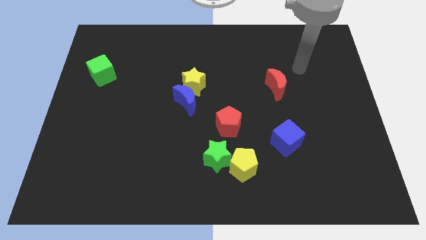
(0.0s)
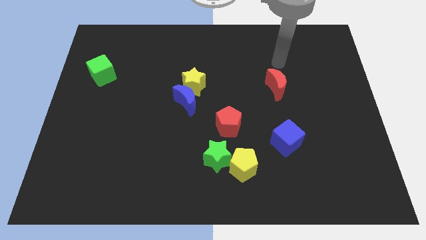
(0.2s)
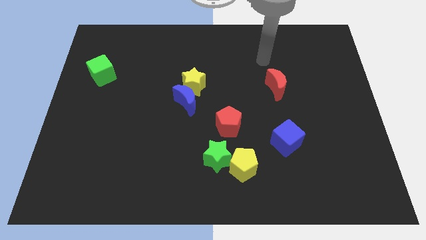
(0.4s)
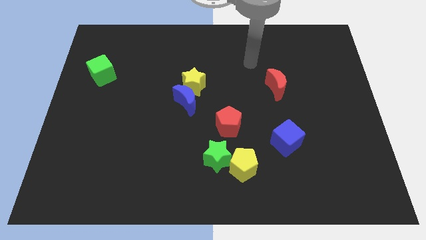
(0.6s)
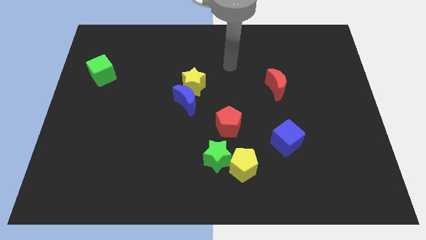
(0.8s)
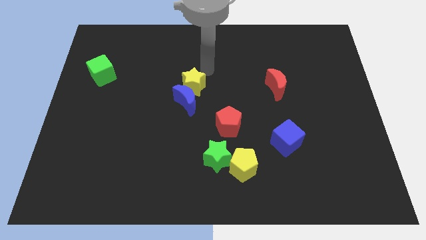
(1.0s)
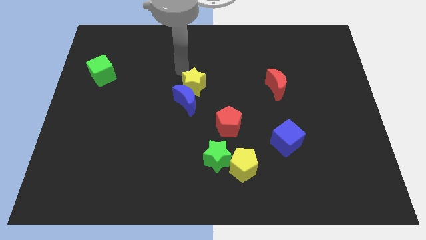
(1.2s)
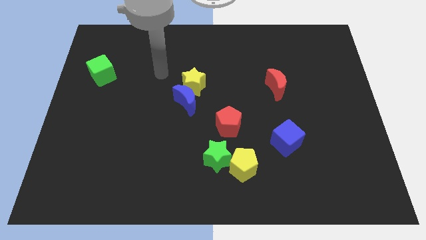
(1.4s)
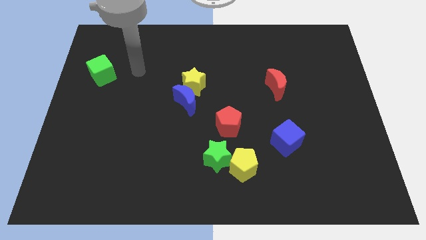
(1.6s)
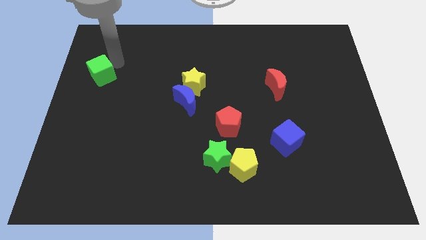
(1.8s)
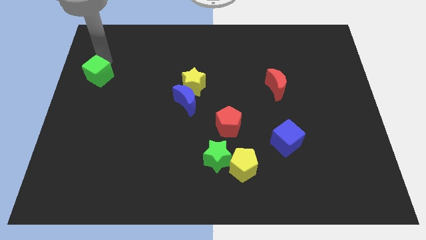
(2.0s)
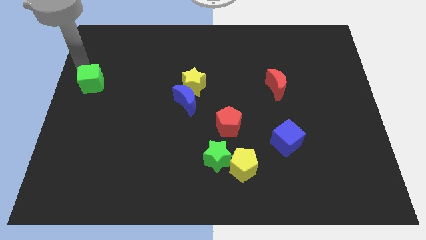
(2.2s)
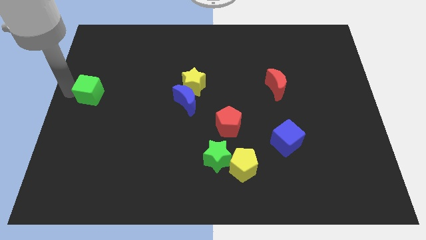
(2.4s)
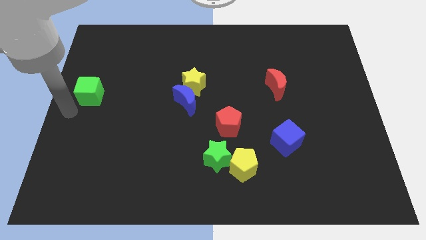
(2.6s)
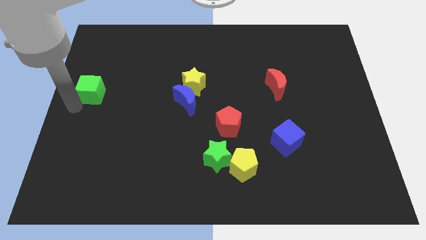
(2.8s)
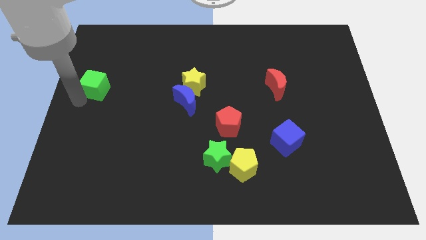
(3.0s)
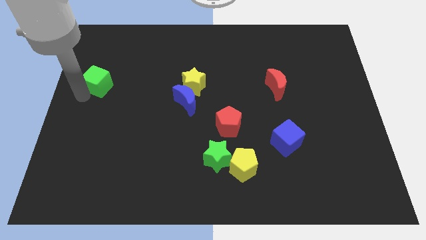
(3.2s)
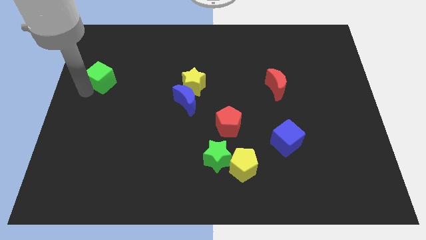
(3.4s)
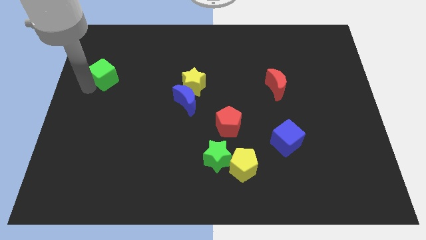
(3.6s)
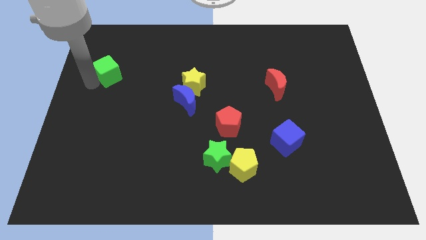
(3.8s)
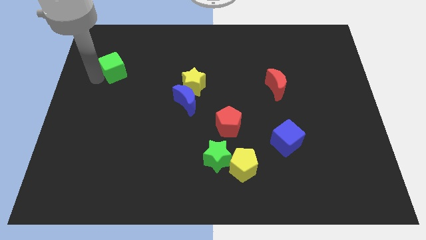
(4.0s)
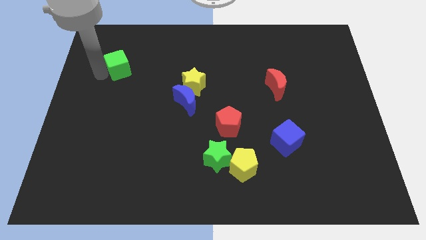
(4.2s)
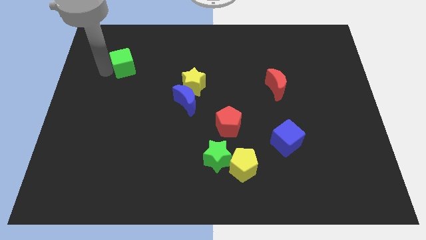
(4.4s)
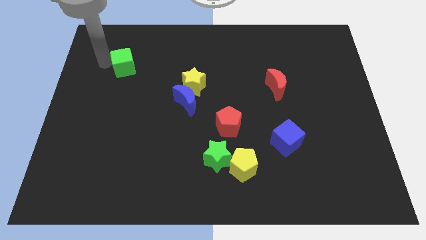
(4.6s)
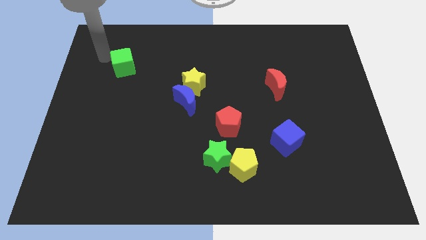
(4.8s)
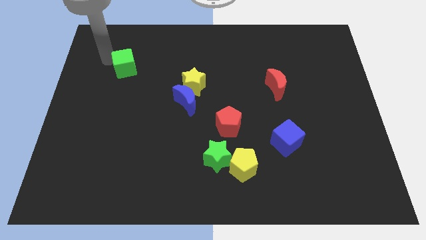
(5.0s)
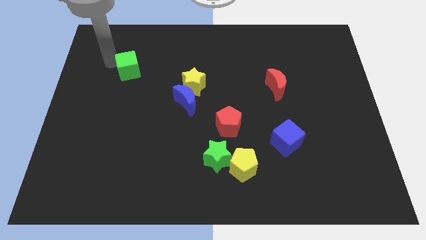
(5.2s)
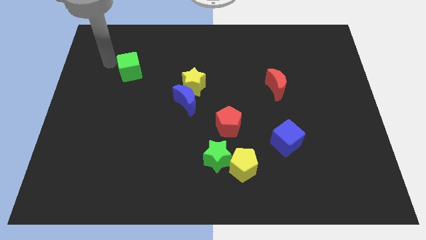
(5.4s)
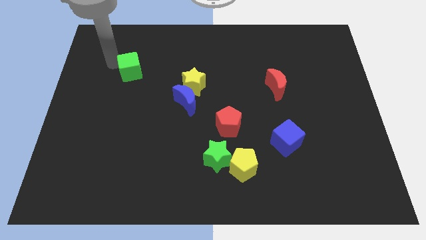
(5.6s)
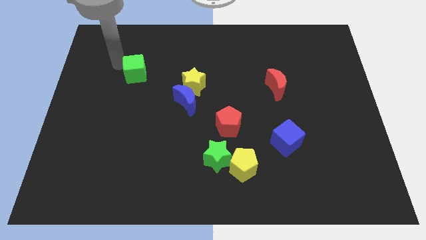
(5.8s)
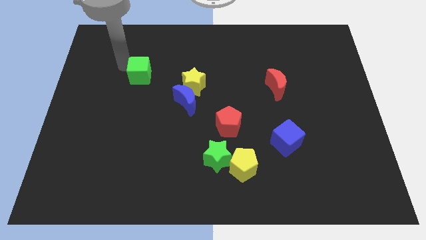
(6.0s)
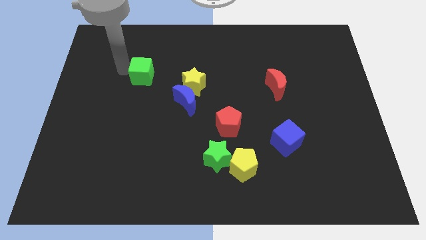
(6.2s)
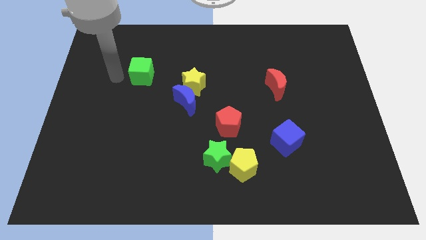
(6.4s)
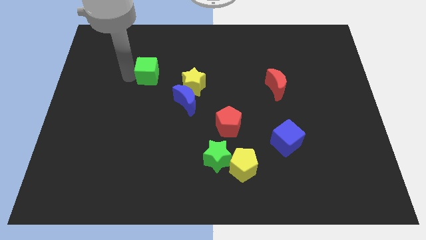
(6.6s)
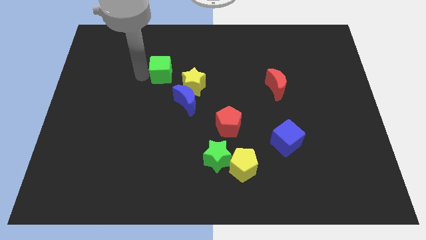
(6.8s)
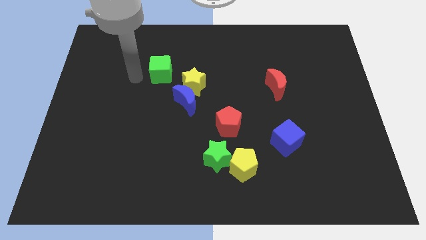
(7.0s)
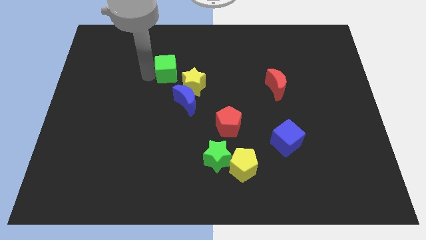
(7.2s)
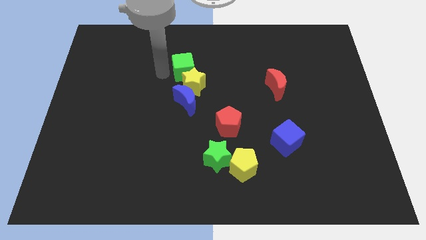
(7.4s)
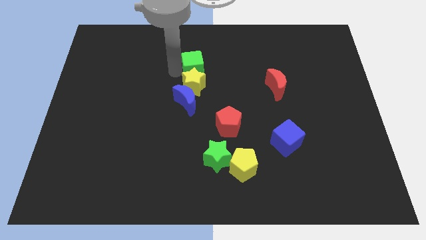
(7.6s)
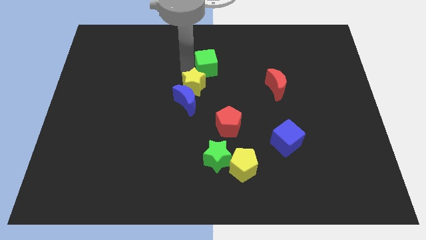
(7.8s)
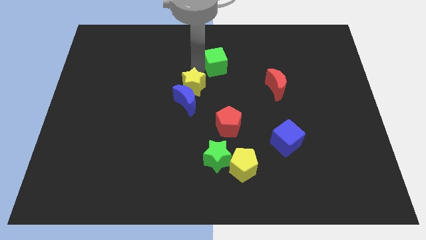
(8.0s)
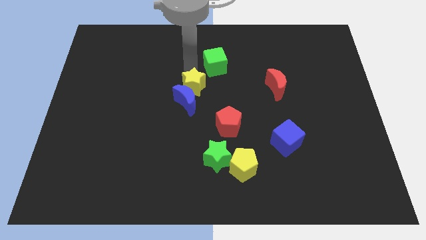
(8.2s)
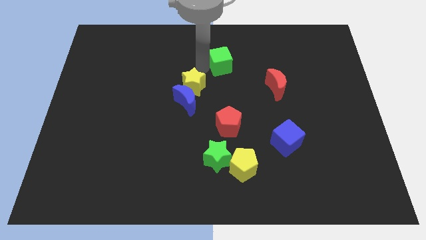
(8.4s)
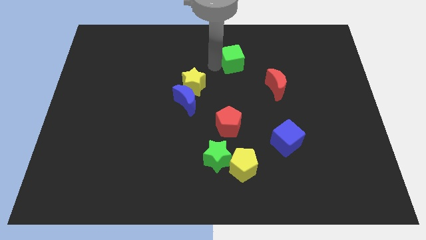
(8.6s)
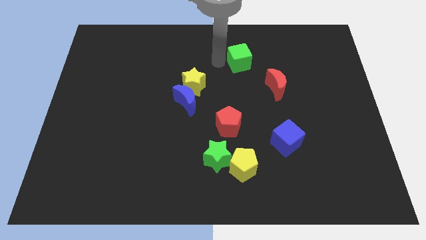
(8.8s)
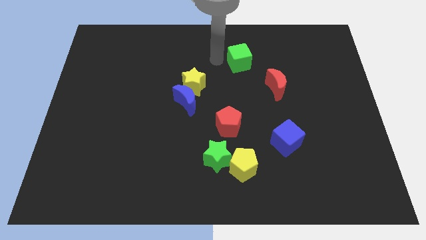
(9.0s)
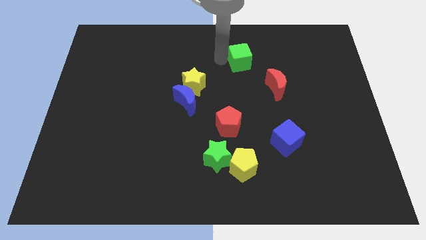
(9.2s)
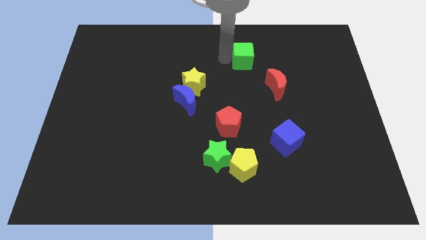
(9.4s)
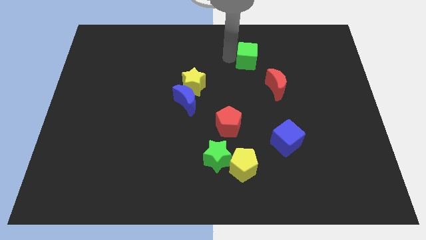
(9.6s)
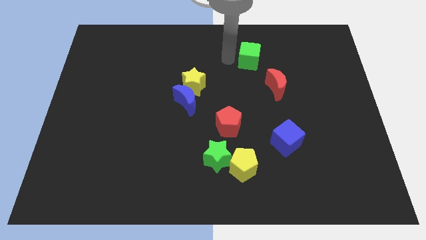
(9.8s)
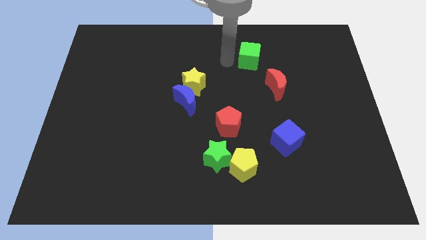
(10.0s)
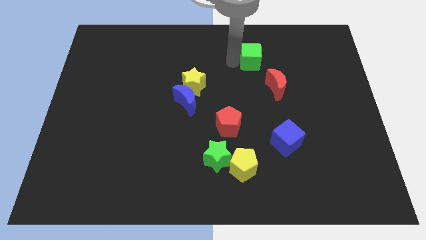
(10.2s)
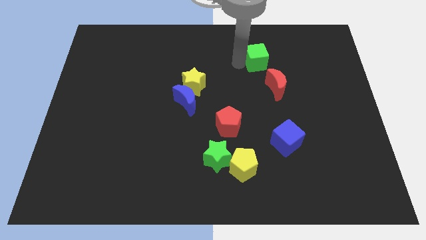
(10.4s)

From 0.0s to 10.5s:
slide the green cube above the red moon

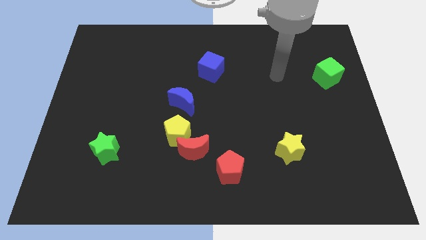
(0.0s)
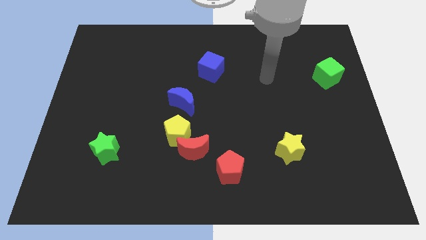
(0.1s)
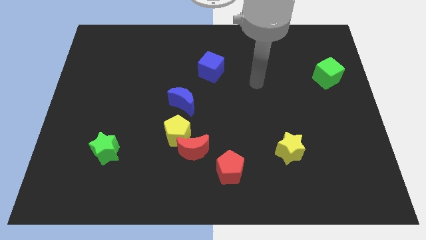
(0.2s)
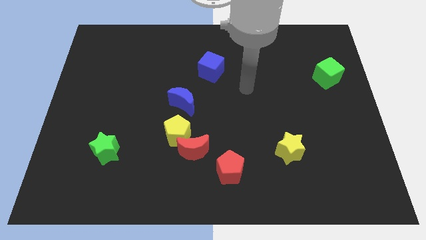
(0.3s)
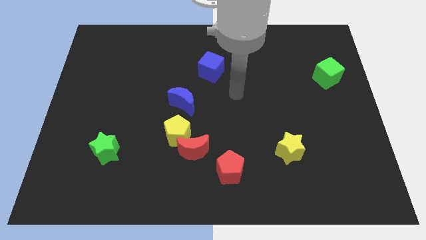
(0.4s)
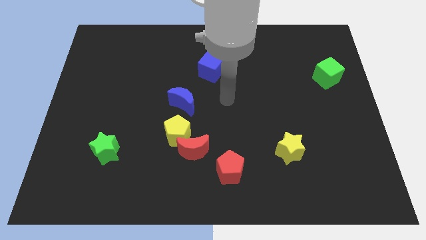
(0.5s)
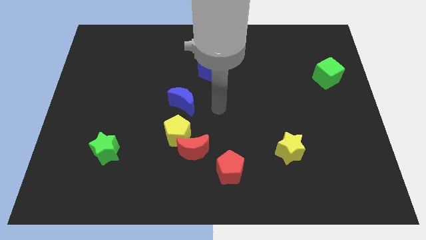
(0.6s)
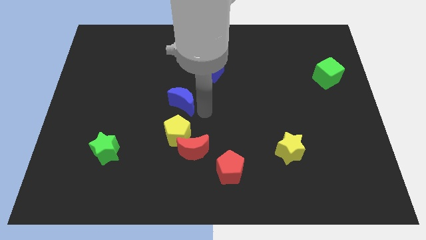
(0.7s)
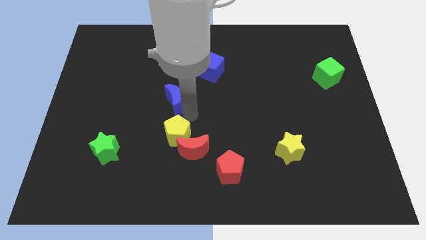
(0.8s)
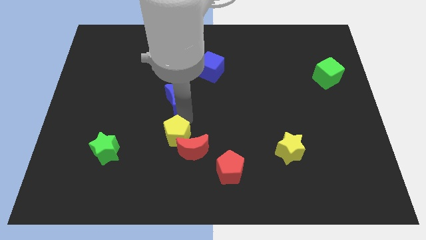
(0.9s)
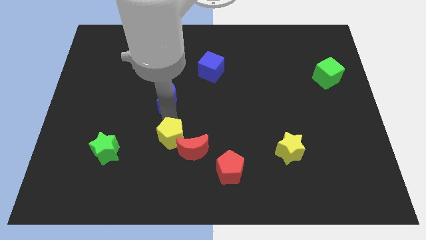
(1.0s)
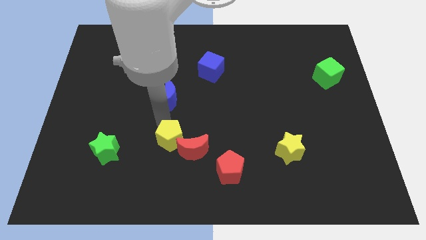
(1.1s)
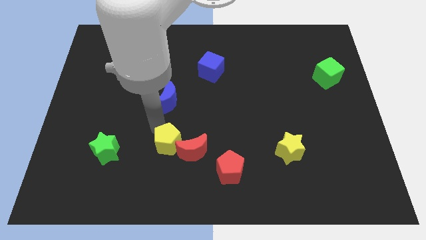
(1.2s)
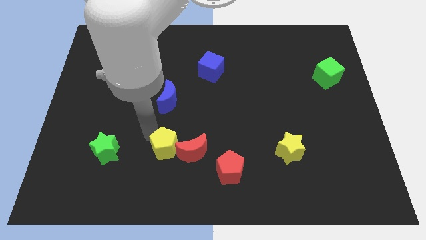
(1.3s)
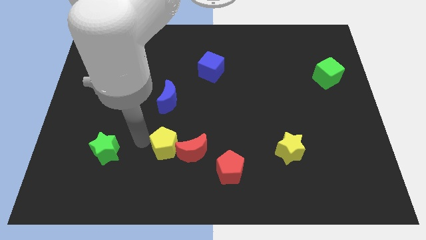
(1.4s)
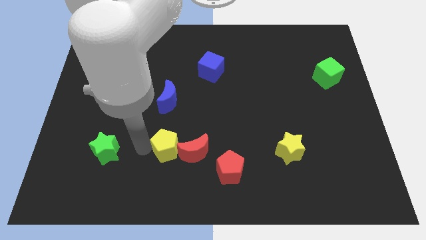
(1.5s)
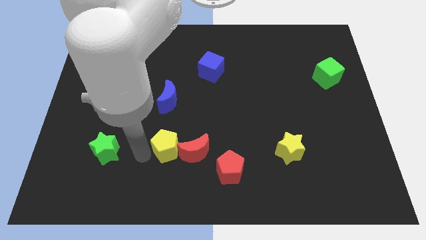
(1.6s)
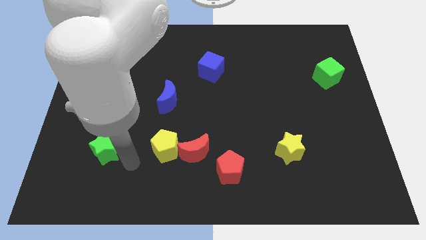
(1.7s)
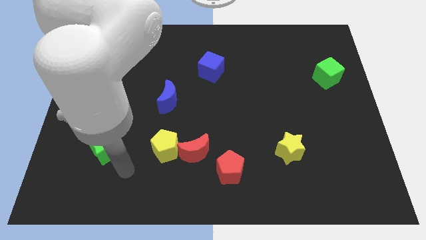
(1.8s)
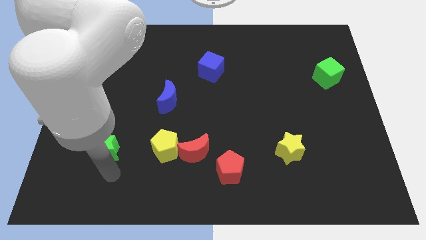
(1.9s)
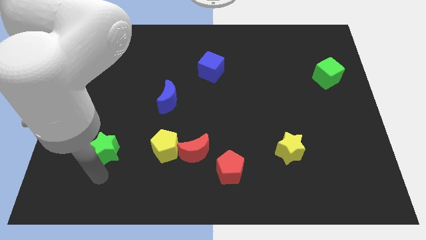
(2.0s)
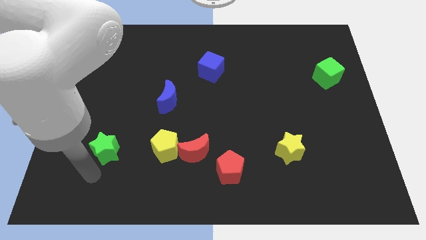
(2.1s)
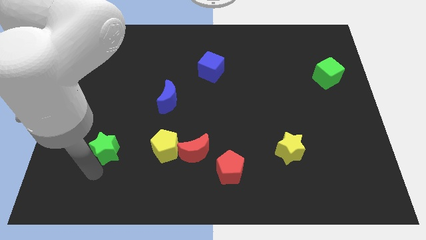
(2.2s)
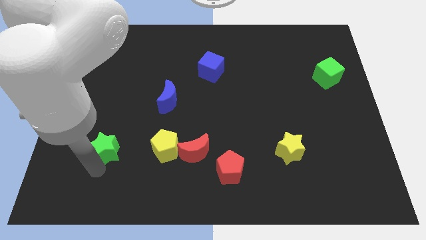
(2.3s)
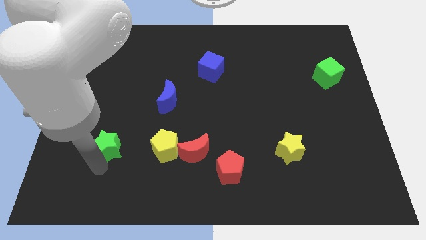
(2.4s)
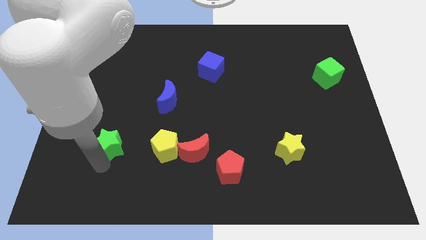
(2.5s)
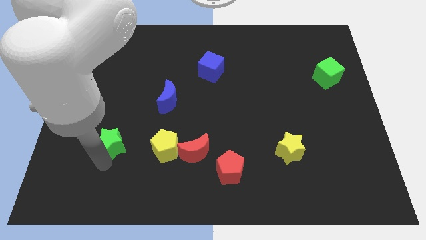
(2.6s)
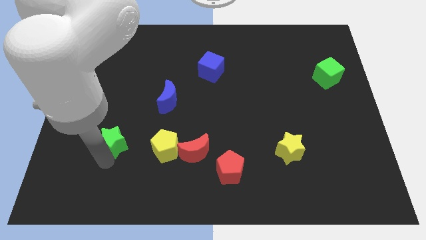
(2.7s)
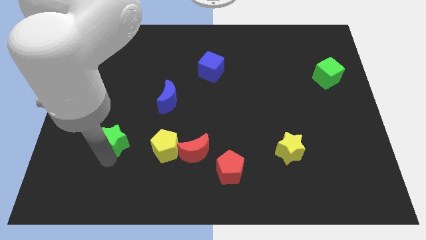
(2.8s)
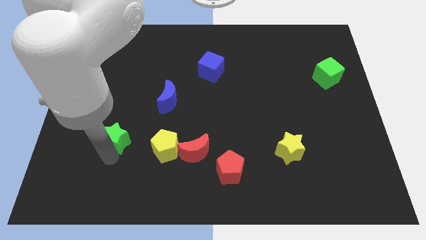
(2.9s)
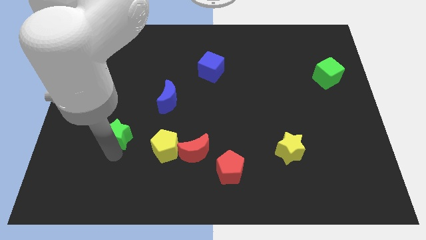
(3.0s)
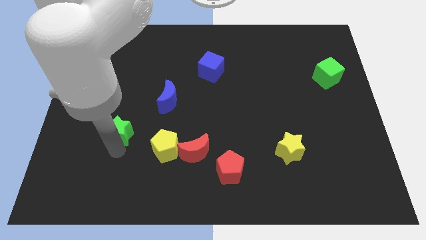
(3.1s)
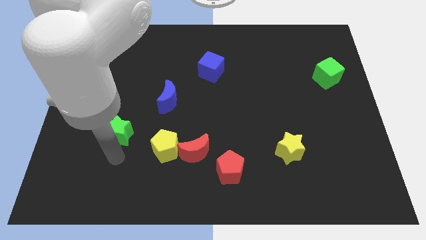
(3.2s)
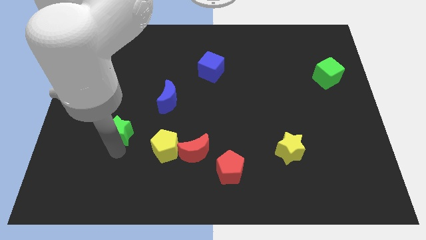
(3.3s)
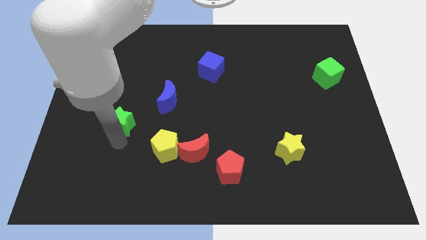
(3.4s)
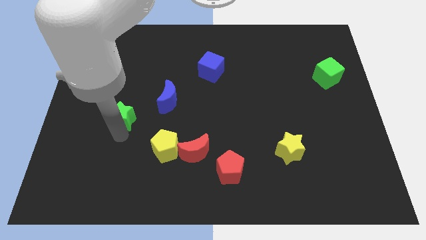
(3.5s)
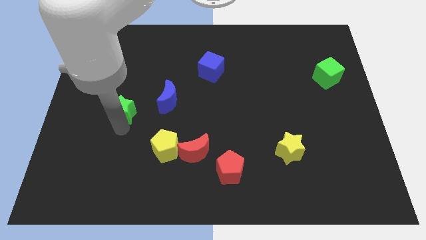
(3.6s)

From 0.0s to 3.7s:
slide the green star just left of the blue moon
